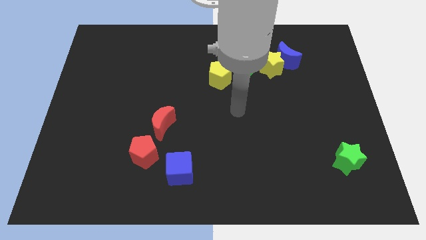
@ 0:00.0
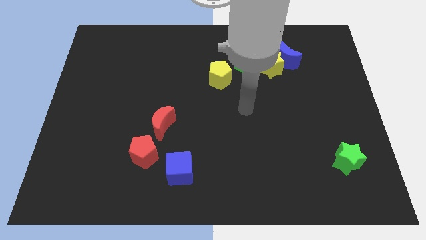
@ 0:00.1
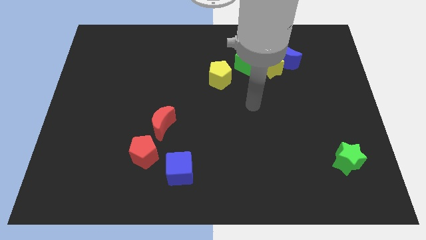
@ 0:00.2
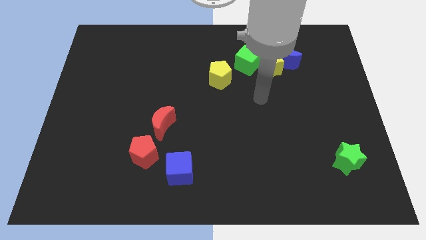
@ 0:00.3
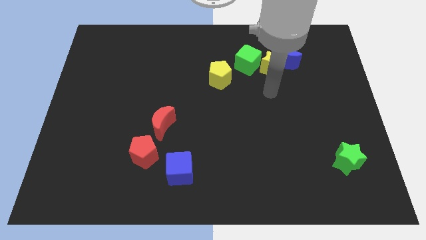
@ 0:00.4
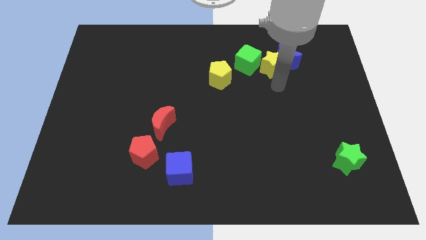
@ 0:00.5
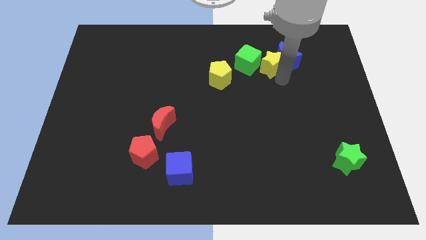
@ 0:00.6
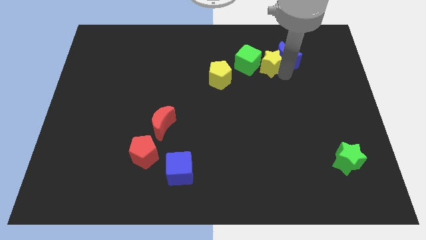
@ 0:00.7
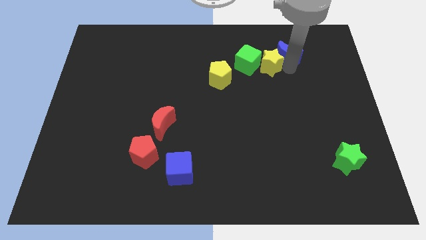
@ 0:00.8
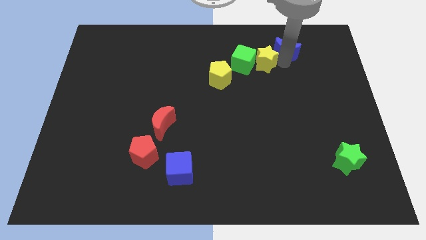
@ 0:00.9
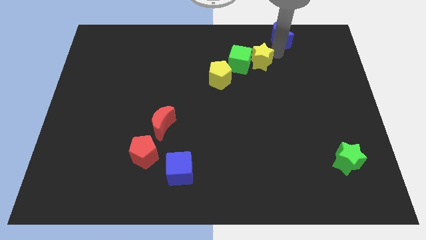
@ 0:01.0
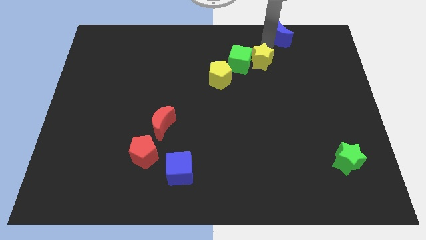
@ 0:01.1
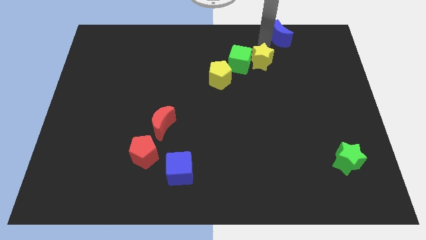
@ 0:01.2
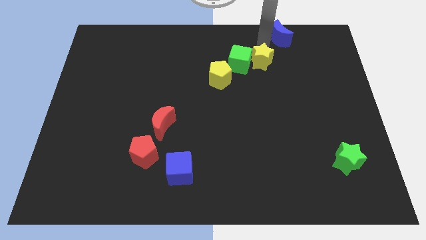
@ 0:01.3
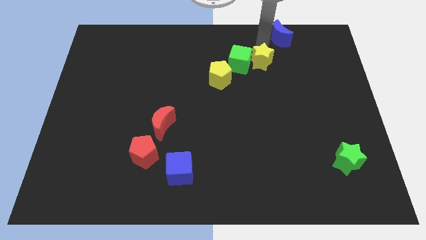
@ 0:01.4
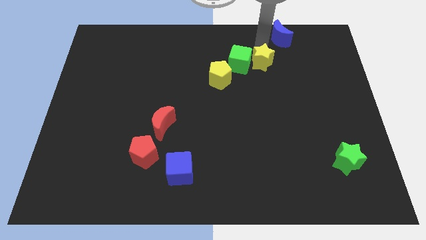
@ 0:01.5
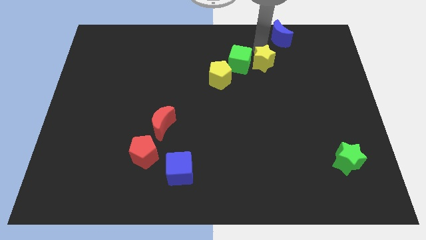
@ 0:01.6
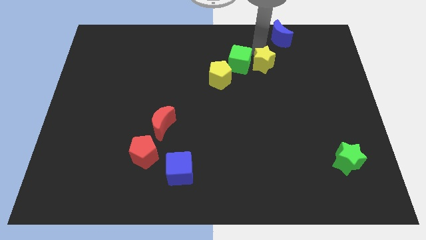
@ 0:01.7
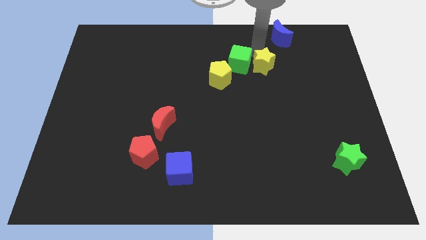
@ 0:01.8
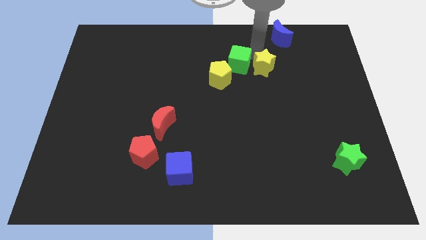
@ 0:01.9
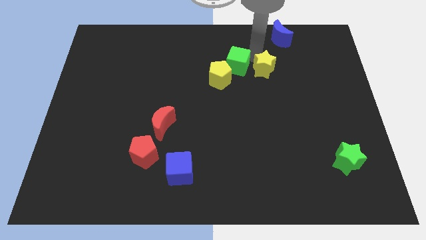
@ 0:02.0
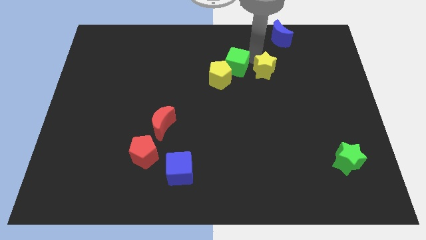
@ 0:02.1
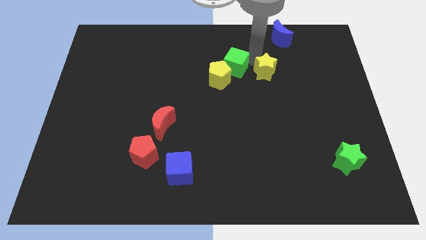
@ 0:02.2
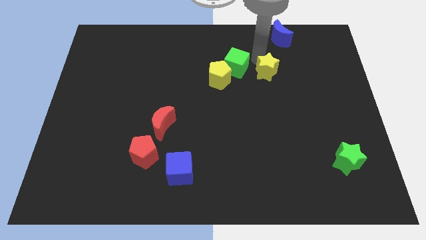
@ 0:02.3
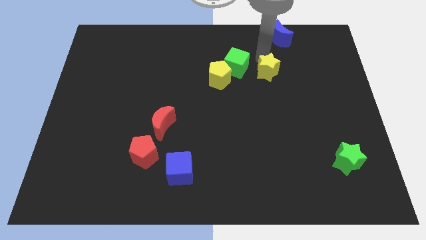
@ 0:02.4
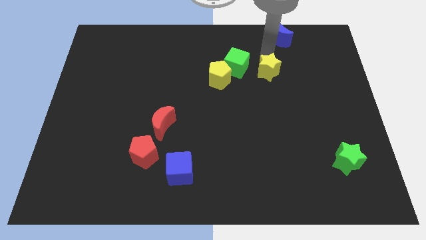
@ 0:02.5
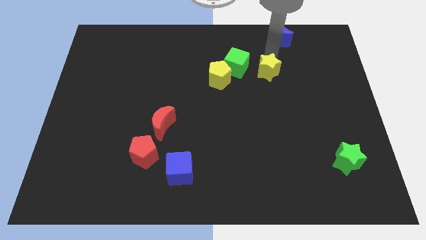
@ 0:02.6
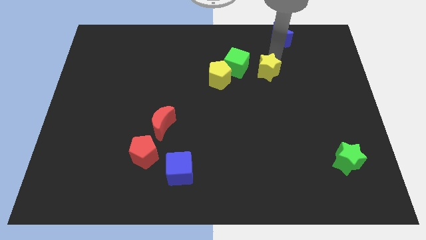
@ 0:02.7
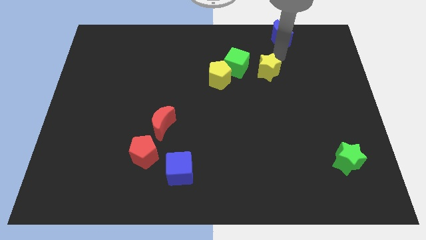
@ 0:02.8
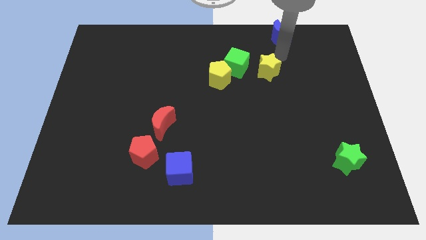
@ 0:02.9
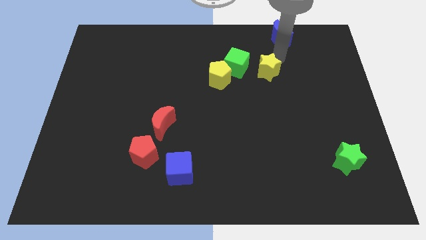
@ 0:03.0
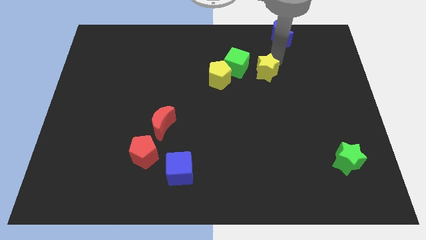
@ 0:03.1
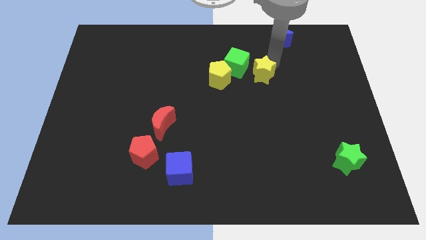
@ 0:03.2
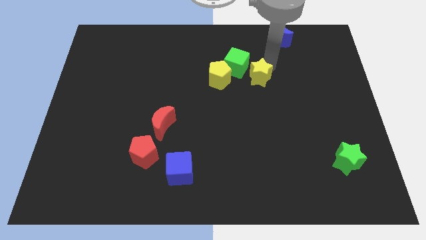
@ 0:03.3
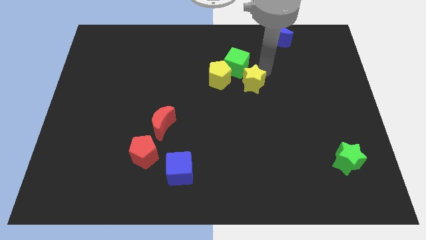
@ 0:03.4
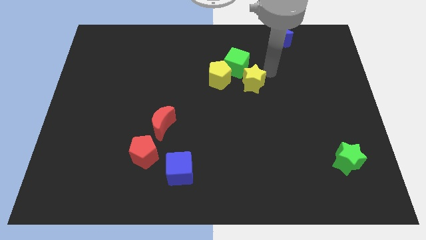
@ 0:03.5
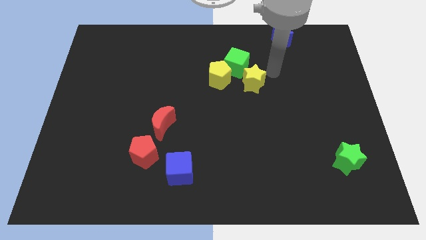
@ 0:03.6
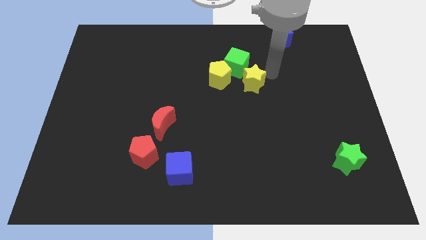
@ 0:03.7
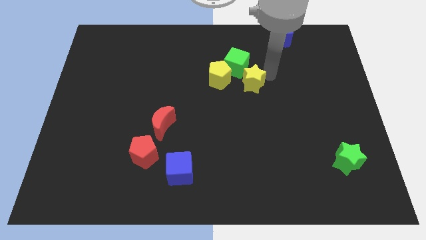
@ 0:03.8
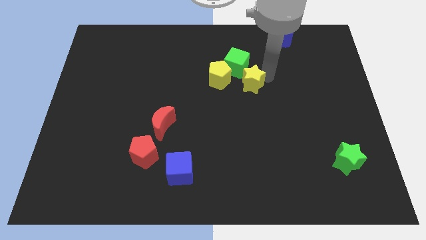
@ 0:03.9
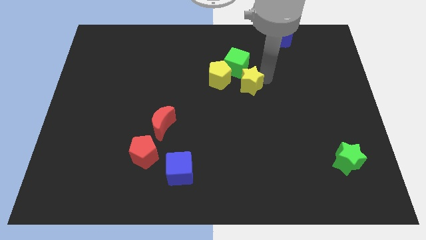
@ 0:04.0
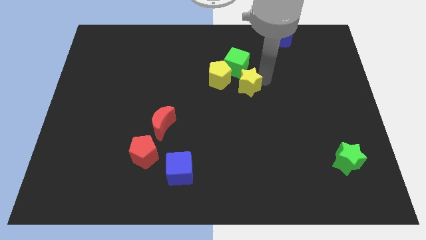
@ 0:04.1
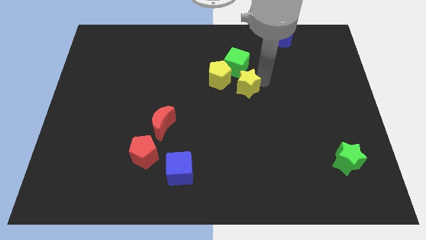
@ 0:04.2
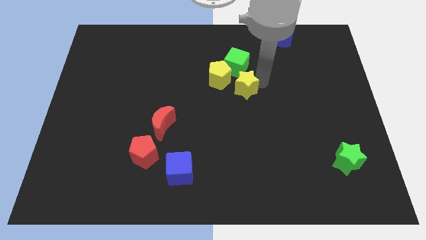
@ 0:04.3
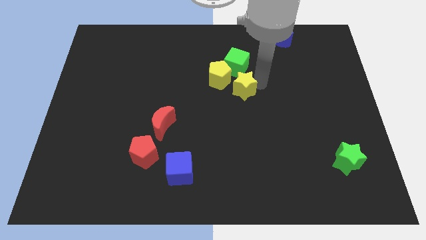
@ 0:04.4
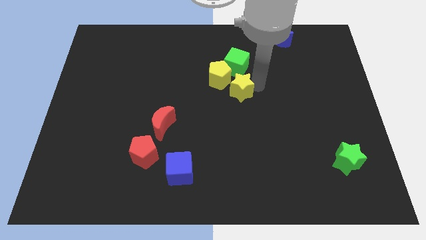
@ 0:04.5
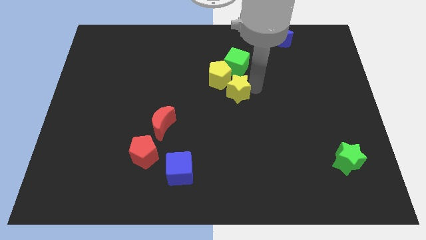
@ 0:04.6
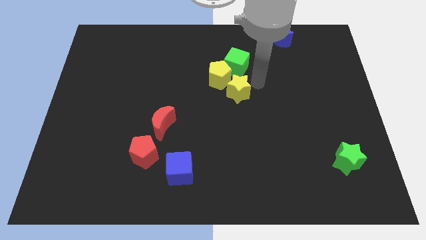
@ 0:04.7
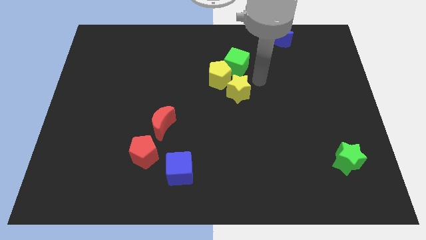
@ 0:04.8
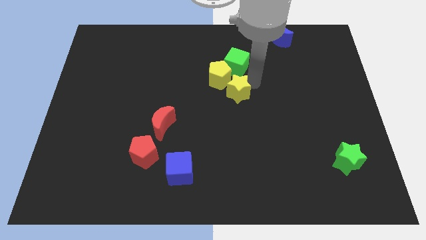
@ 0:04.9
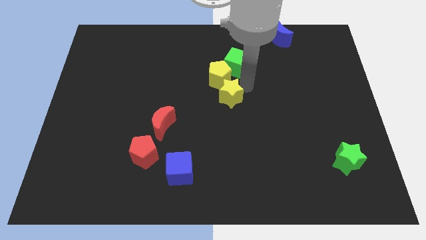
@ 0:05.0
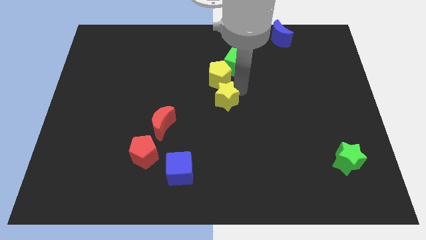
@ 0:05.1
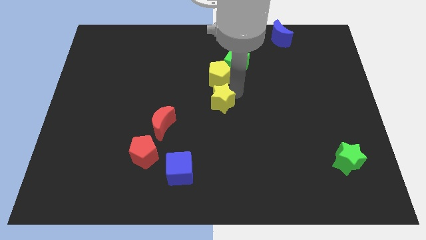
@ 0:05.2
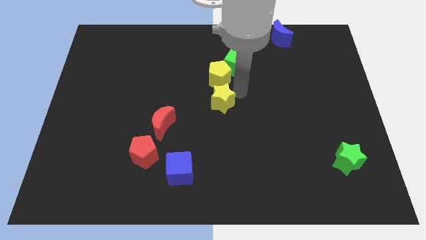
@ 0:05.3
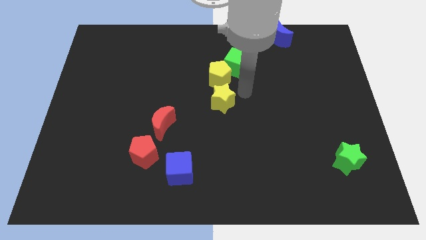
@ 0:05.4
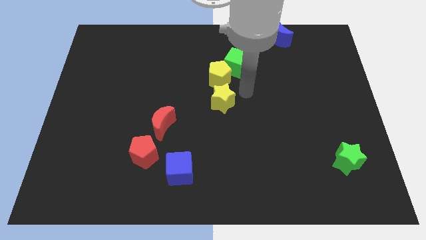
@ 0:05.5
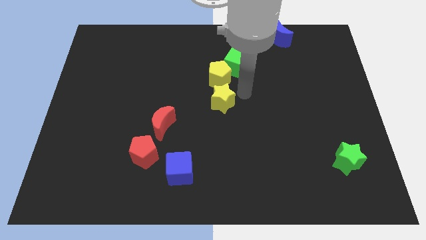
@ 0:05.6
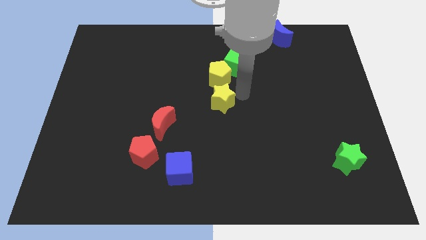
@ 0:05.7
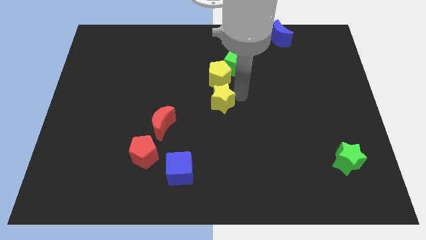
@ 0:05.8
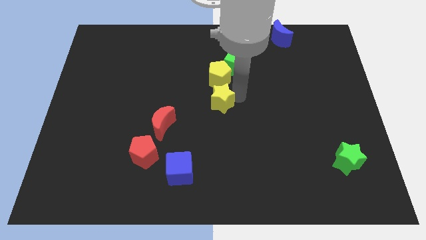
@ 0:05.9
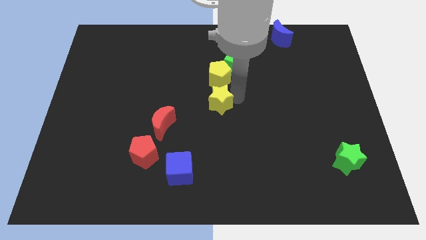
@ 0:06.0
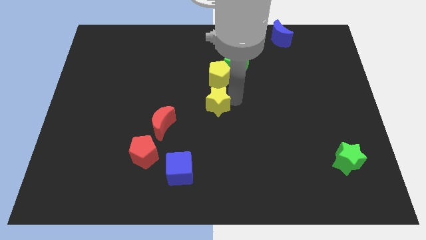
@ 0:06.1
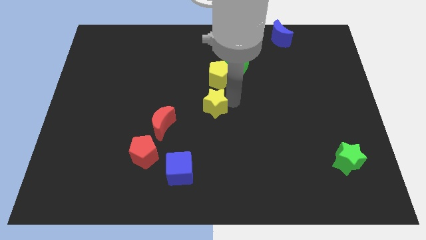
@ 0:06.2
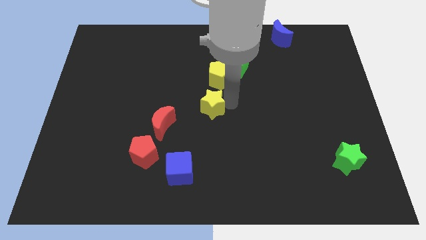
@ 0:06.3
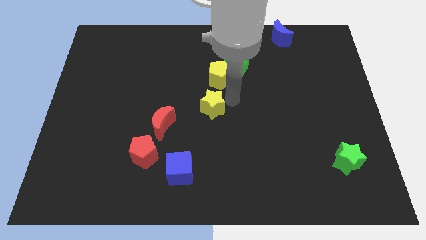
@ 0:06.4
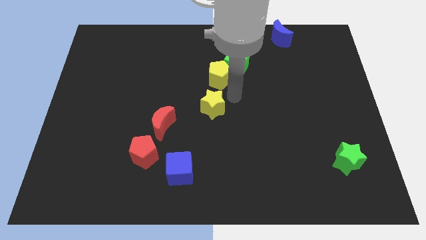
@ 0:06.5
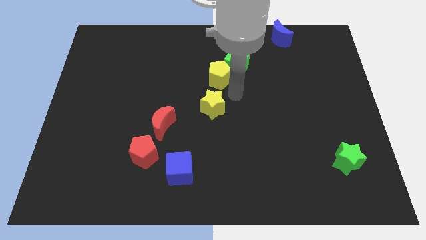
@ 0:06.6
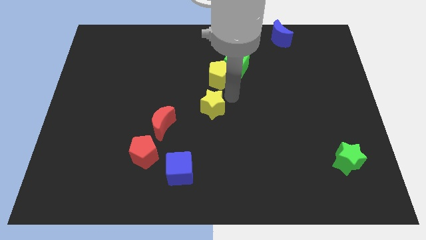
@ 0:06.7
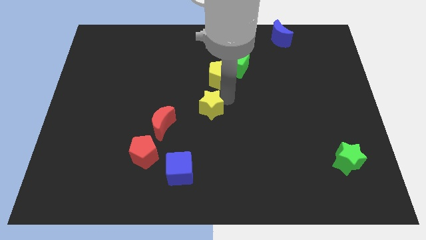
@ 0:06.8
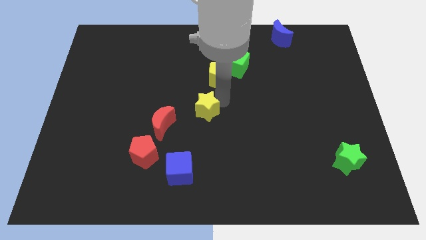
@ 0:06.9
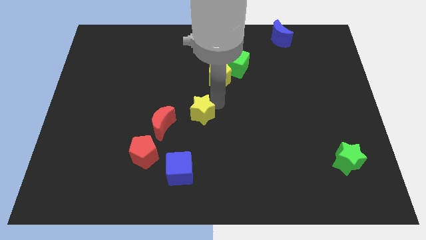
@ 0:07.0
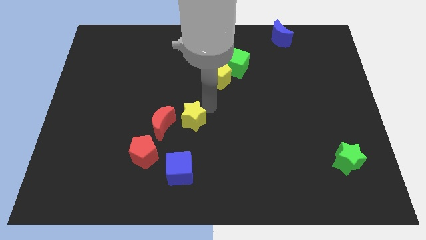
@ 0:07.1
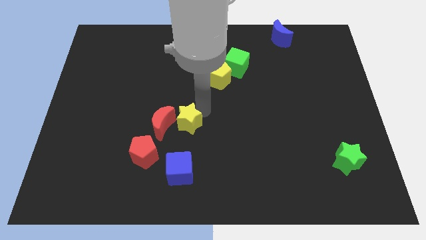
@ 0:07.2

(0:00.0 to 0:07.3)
push the yellow star to the top right side of the red pentagon
